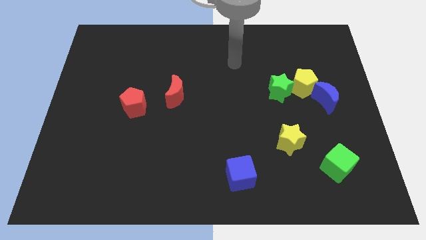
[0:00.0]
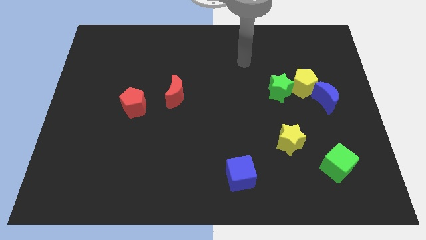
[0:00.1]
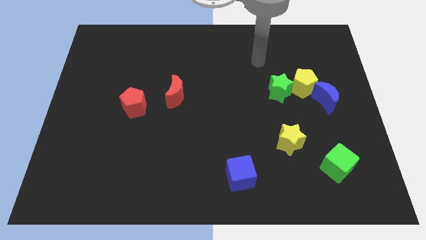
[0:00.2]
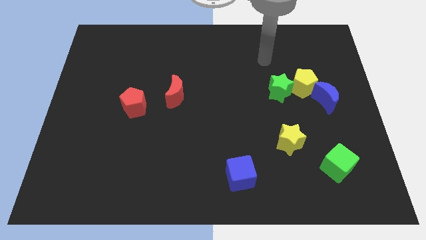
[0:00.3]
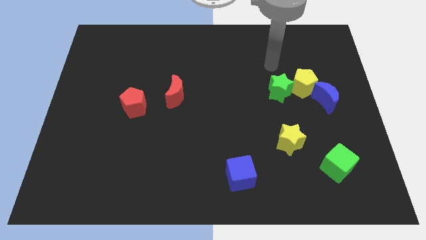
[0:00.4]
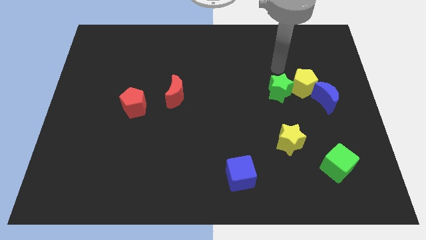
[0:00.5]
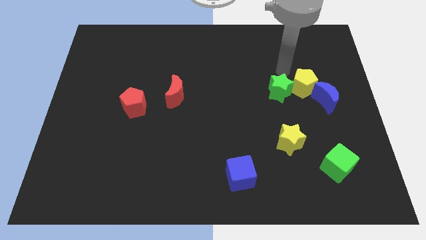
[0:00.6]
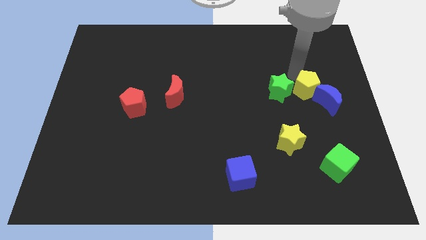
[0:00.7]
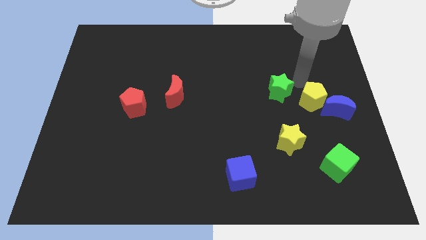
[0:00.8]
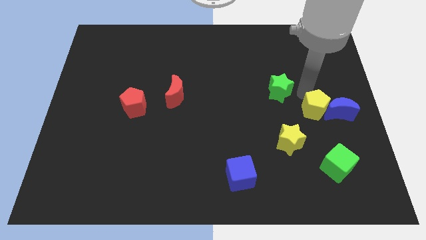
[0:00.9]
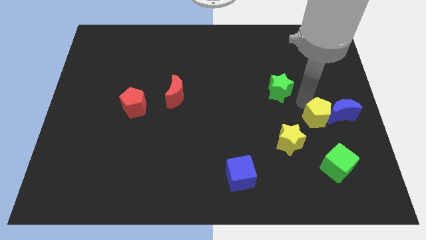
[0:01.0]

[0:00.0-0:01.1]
pull the green star apart from the yellow pentagon

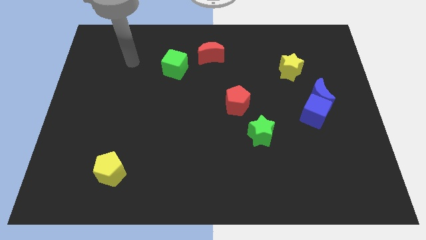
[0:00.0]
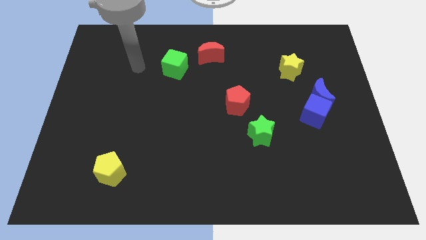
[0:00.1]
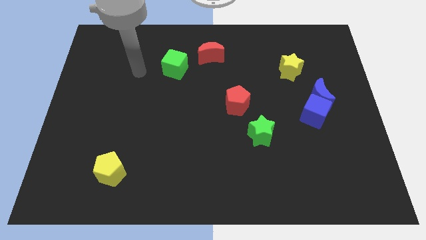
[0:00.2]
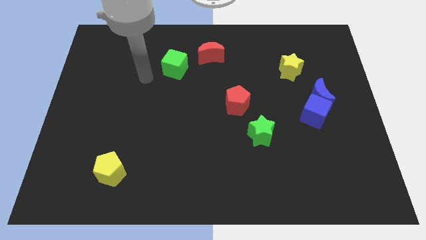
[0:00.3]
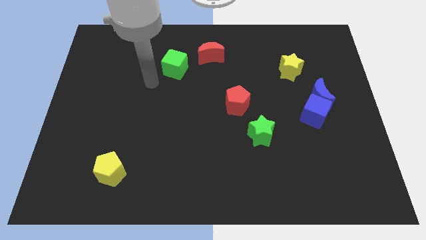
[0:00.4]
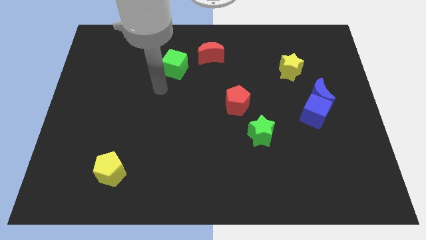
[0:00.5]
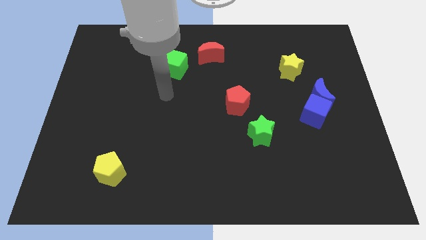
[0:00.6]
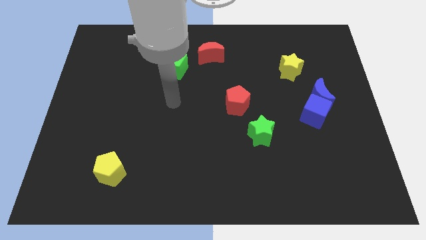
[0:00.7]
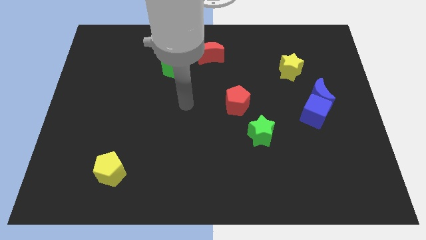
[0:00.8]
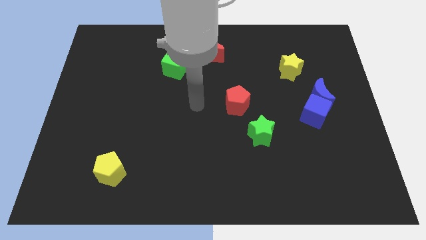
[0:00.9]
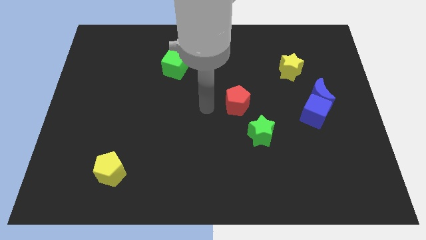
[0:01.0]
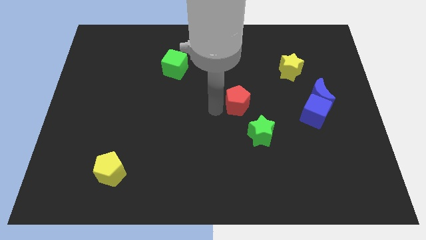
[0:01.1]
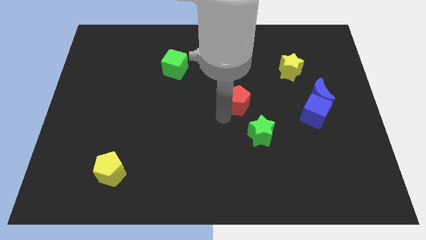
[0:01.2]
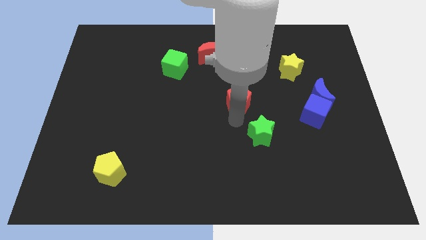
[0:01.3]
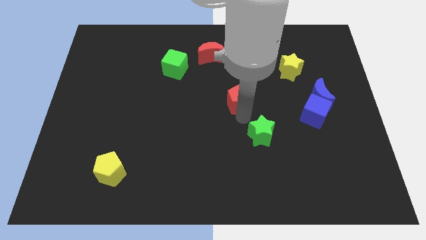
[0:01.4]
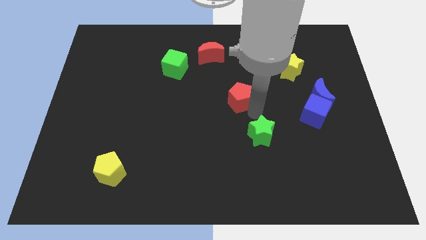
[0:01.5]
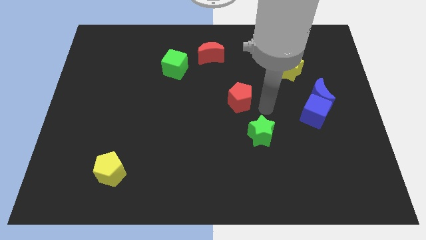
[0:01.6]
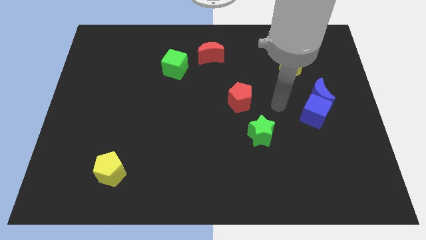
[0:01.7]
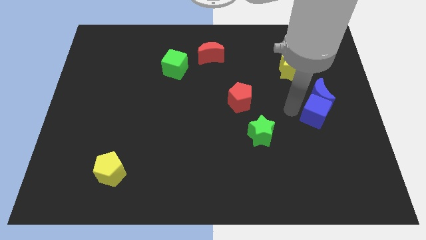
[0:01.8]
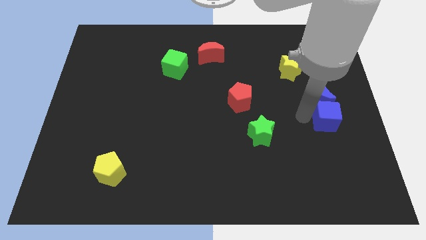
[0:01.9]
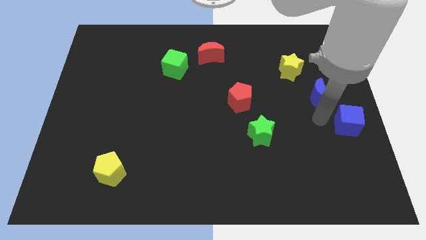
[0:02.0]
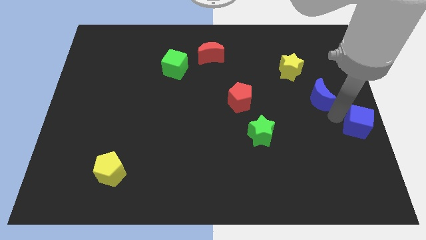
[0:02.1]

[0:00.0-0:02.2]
separate the blue moon from the blue cube

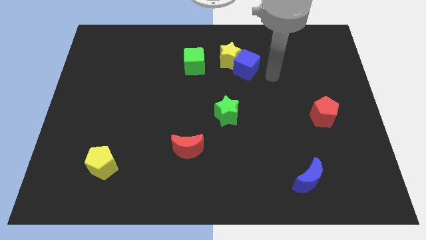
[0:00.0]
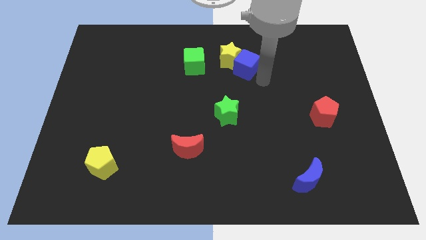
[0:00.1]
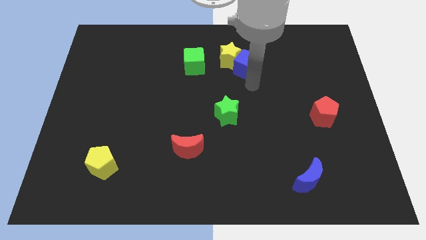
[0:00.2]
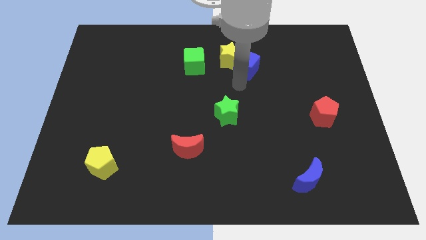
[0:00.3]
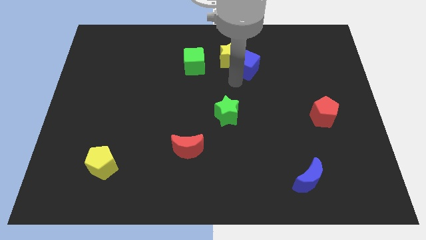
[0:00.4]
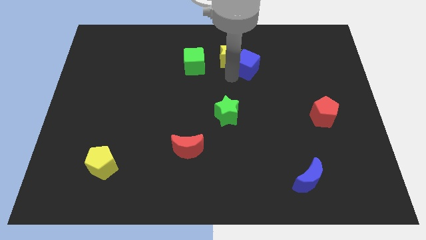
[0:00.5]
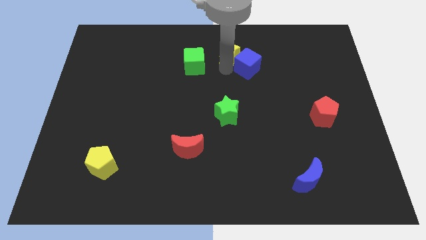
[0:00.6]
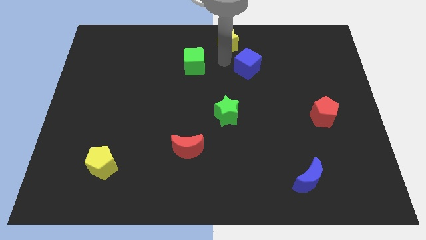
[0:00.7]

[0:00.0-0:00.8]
pull the blue cube apart from the yellow star

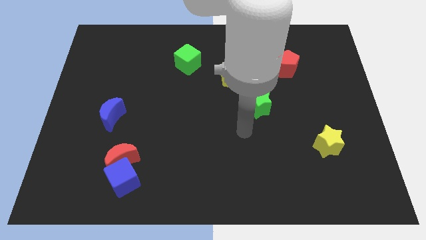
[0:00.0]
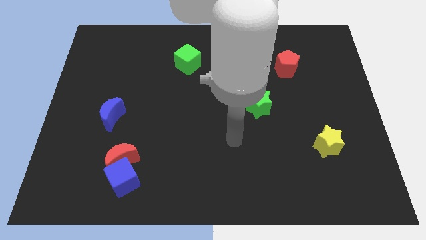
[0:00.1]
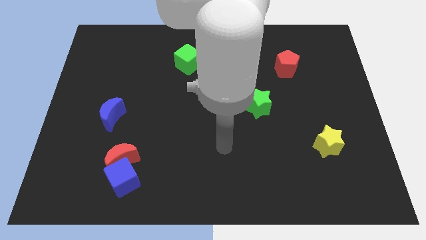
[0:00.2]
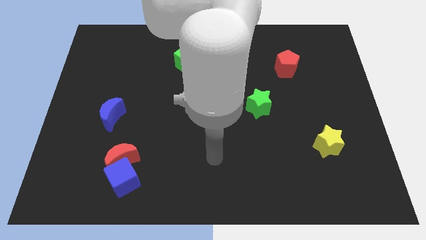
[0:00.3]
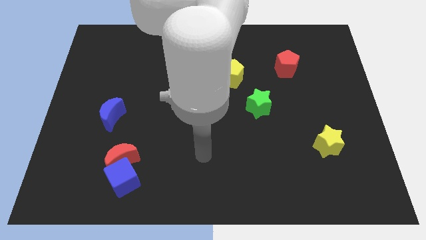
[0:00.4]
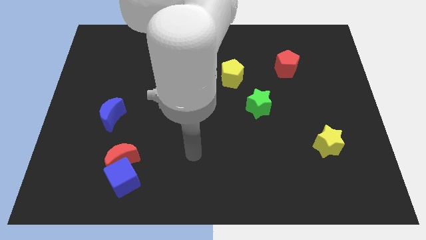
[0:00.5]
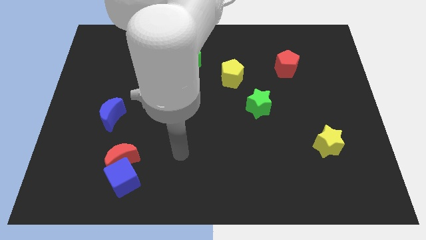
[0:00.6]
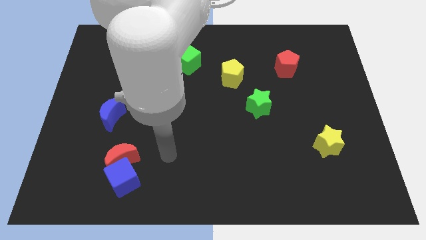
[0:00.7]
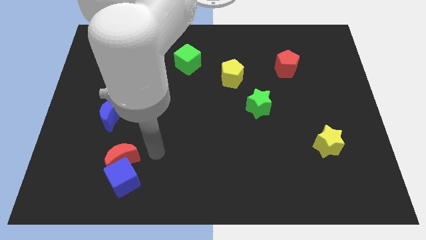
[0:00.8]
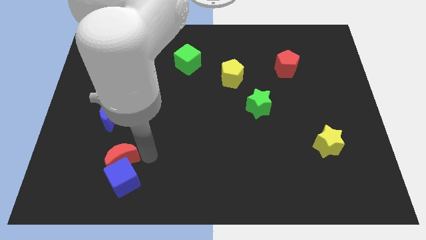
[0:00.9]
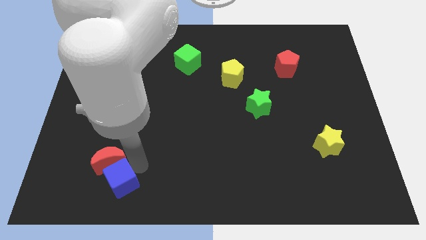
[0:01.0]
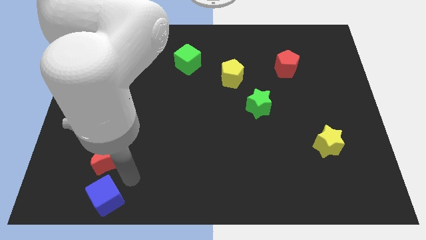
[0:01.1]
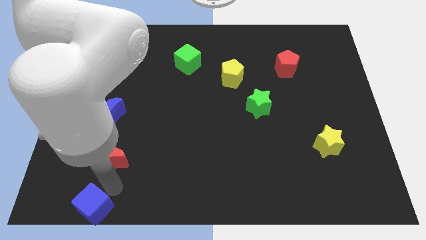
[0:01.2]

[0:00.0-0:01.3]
separate the red moon from the blue cube

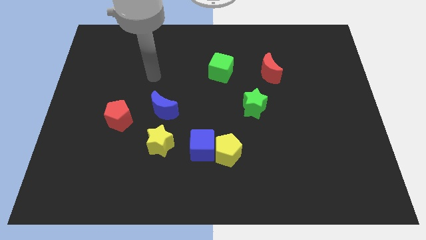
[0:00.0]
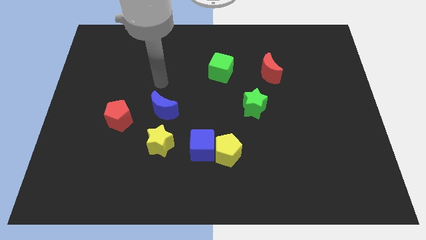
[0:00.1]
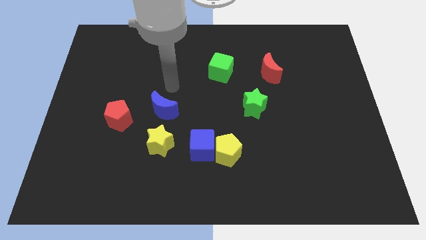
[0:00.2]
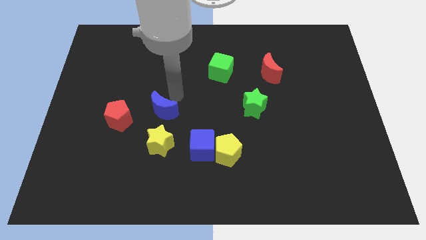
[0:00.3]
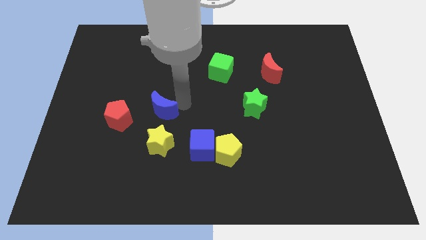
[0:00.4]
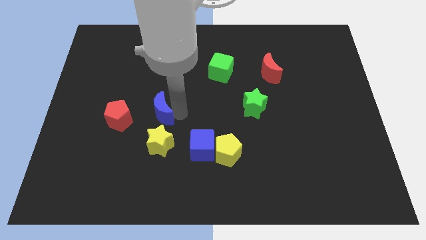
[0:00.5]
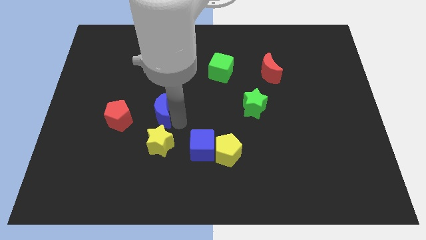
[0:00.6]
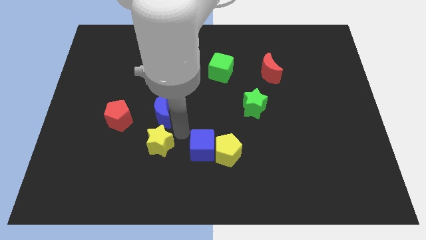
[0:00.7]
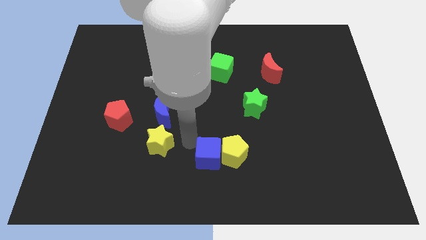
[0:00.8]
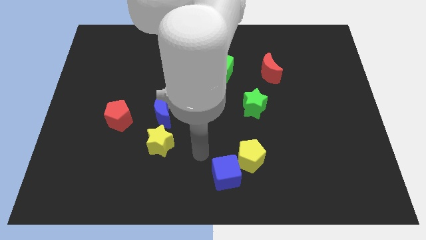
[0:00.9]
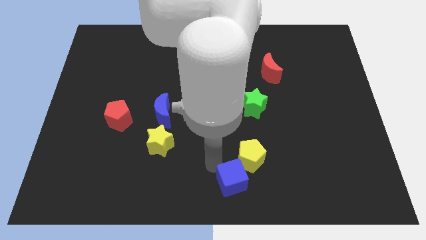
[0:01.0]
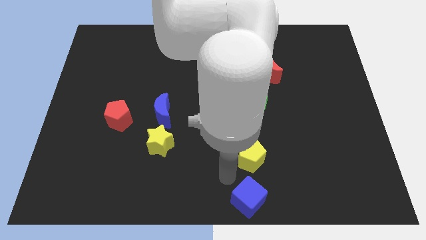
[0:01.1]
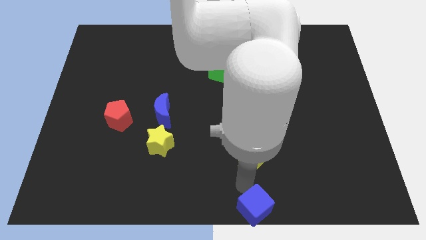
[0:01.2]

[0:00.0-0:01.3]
pull the yellow pentagon apart from the blue cube

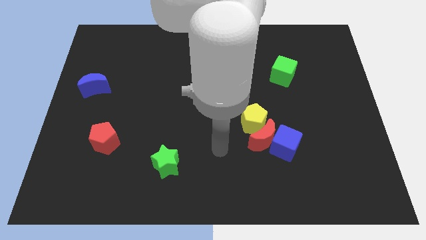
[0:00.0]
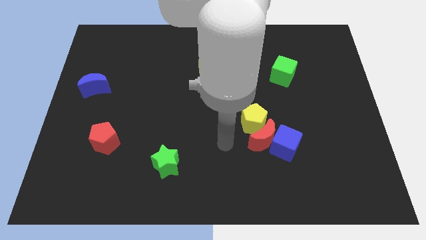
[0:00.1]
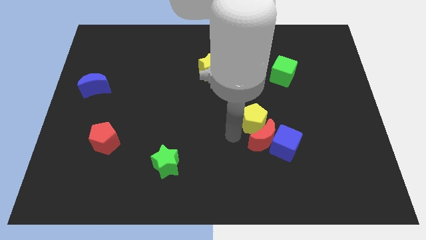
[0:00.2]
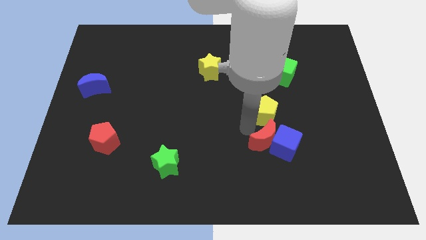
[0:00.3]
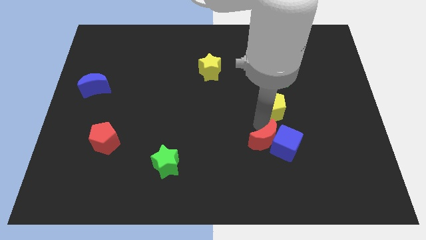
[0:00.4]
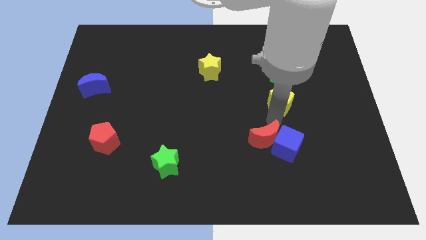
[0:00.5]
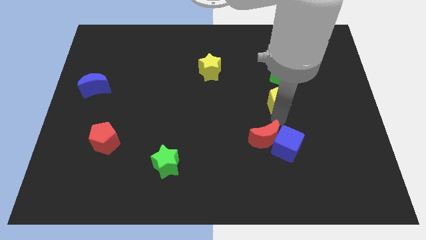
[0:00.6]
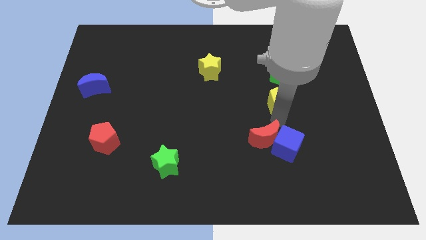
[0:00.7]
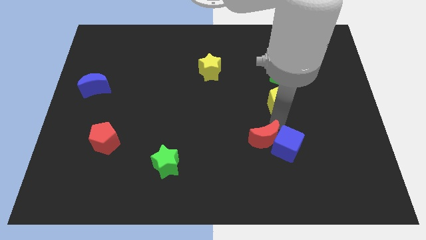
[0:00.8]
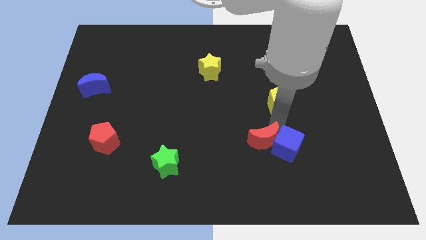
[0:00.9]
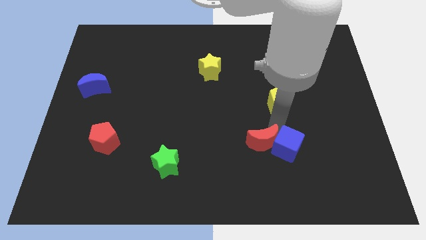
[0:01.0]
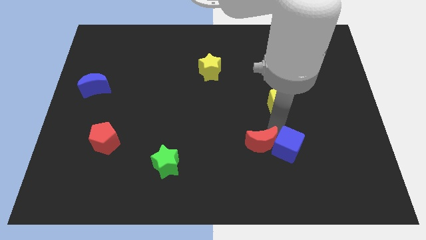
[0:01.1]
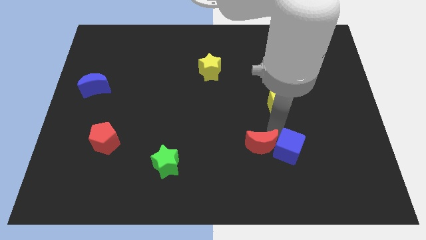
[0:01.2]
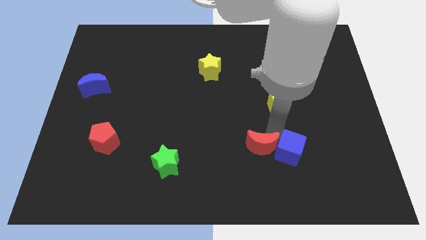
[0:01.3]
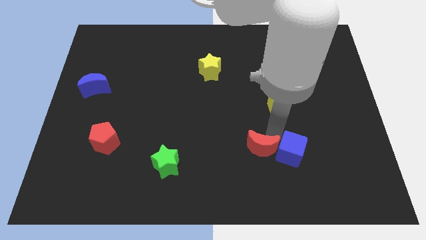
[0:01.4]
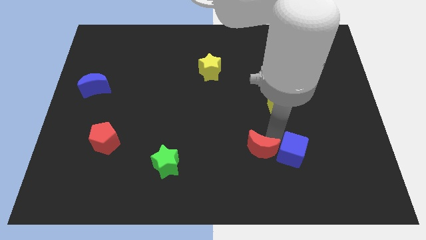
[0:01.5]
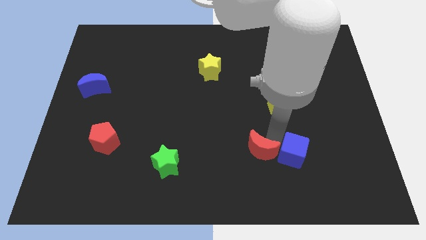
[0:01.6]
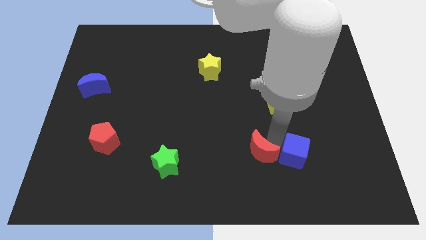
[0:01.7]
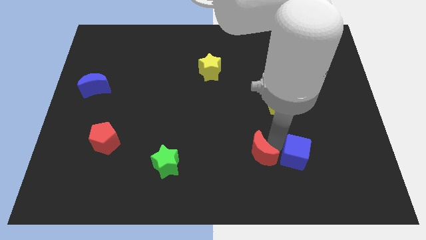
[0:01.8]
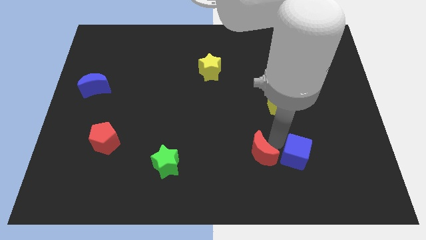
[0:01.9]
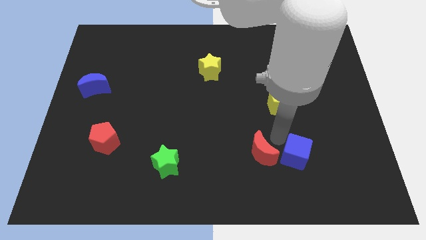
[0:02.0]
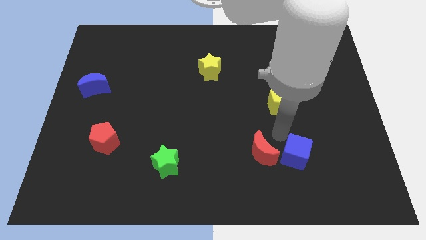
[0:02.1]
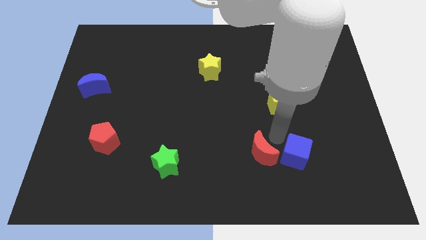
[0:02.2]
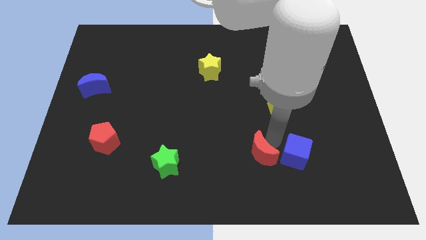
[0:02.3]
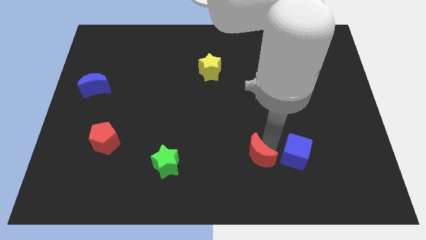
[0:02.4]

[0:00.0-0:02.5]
move the red moon away from the blue cube and yellow pentagon

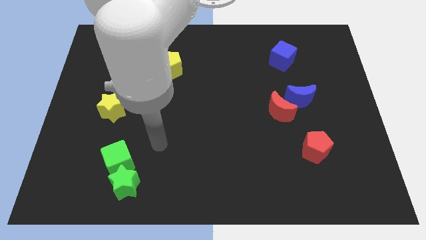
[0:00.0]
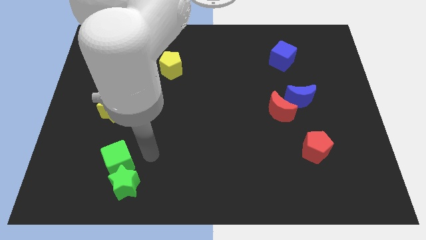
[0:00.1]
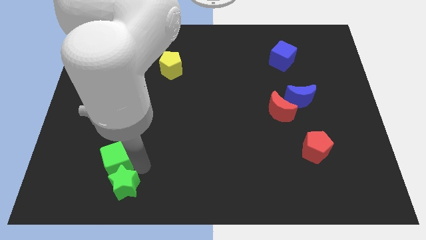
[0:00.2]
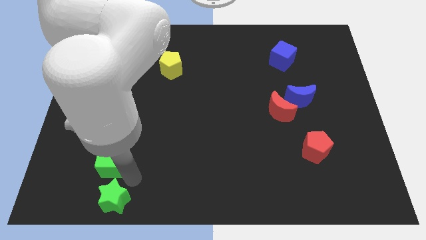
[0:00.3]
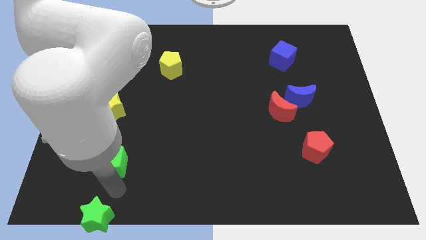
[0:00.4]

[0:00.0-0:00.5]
separate the green cube from the green star
